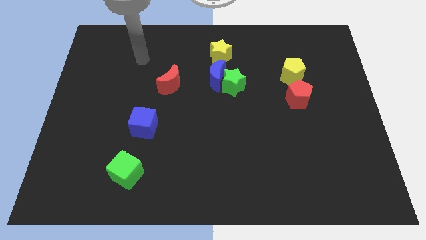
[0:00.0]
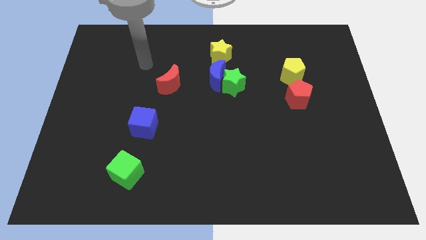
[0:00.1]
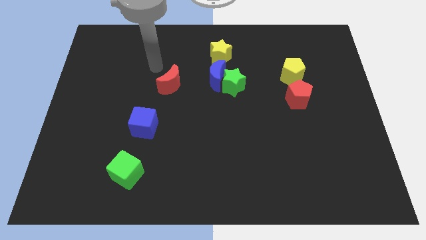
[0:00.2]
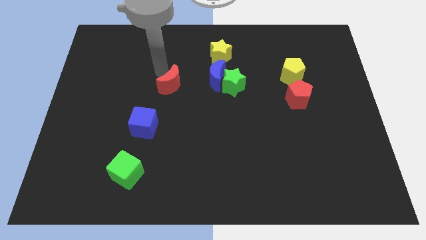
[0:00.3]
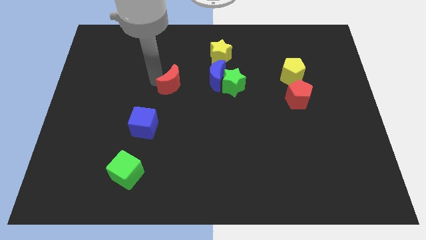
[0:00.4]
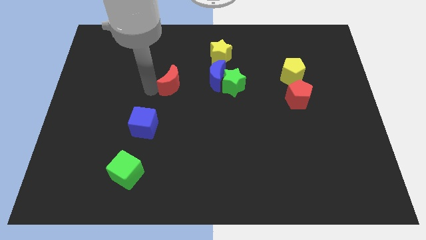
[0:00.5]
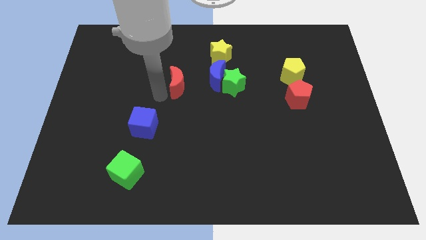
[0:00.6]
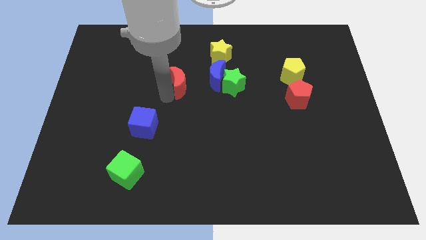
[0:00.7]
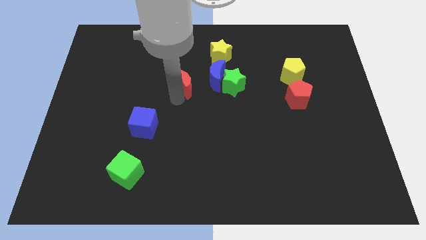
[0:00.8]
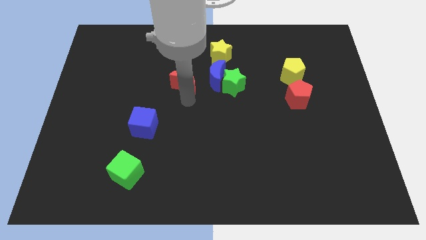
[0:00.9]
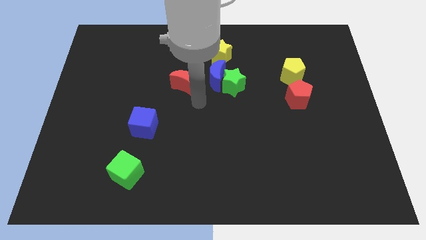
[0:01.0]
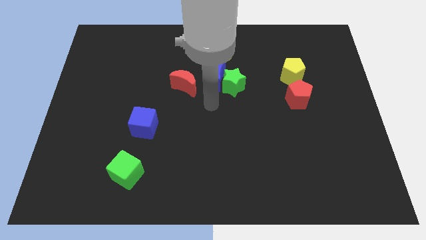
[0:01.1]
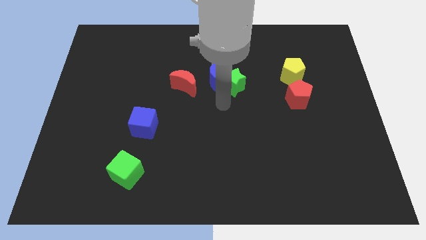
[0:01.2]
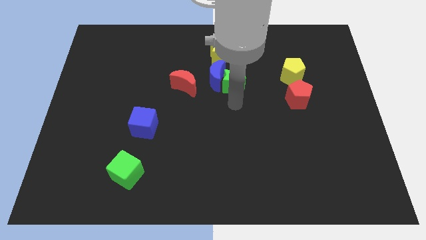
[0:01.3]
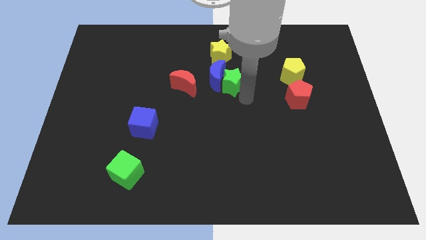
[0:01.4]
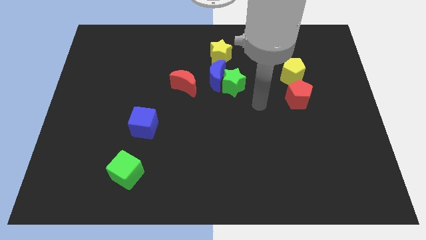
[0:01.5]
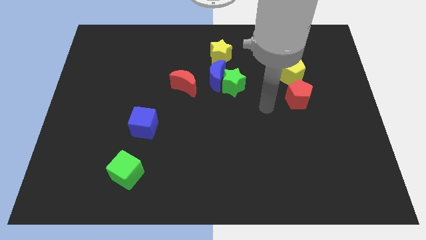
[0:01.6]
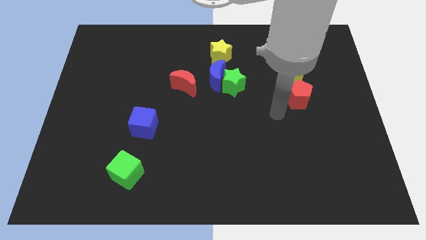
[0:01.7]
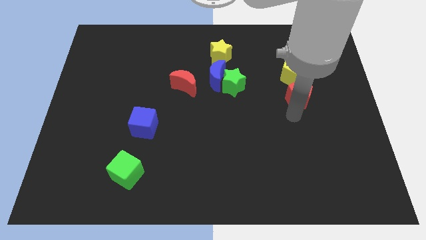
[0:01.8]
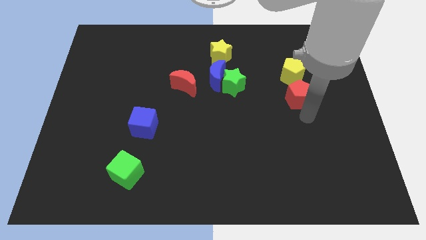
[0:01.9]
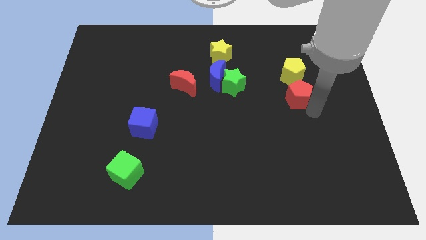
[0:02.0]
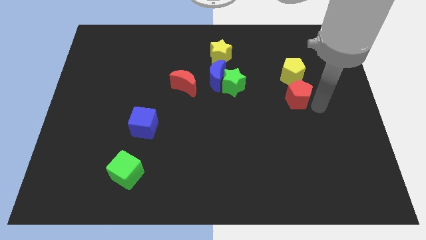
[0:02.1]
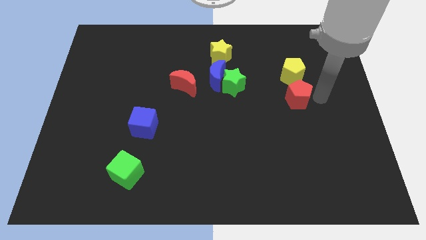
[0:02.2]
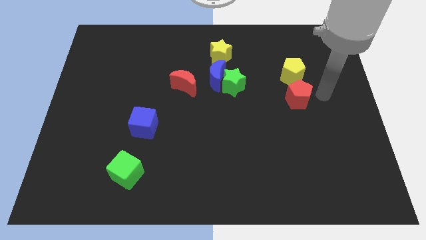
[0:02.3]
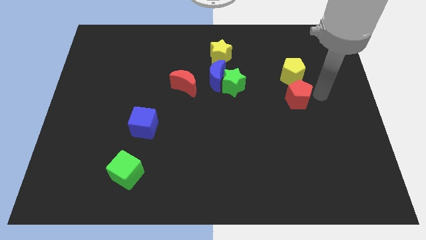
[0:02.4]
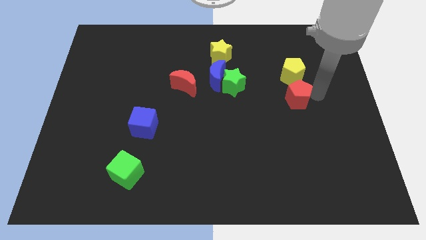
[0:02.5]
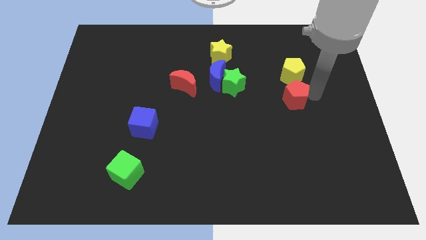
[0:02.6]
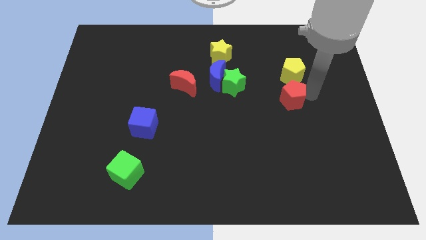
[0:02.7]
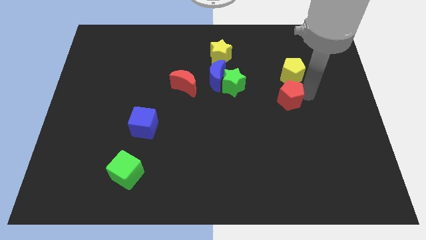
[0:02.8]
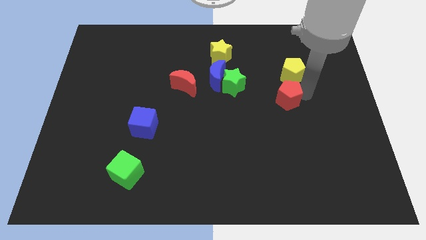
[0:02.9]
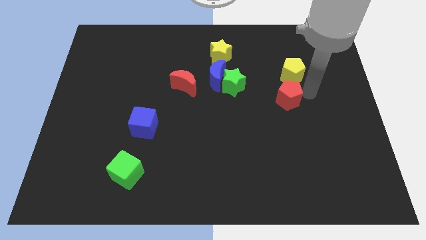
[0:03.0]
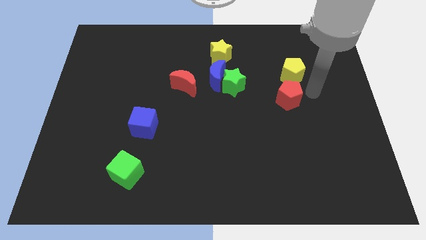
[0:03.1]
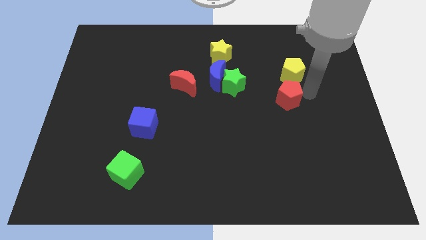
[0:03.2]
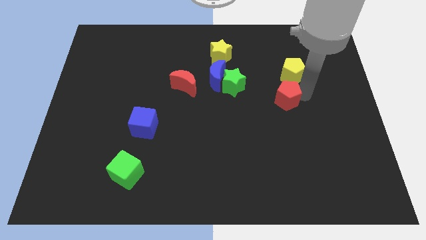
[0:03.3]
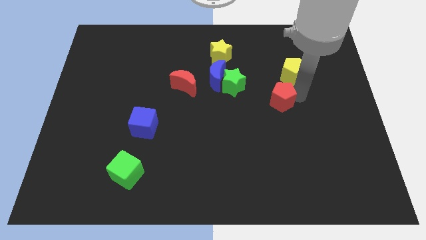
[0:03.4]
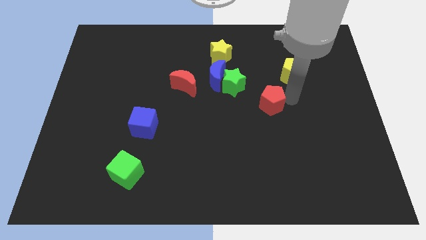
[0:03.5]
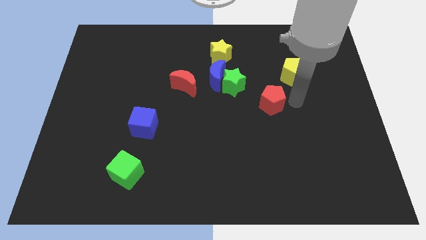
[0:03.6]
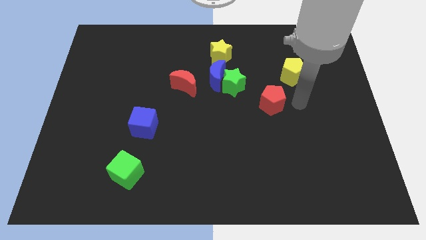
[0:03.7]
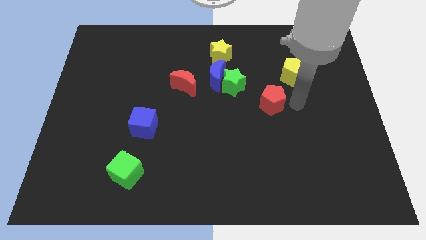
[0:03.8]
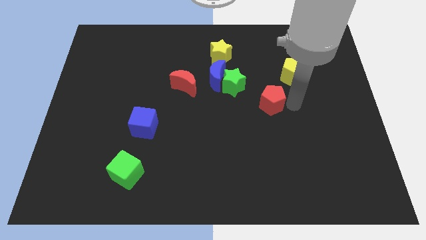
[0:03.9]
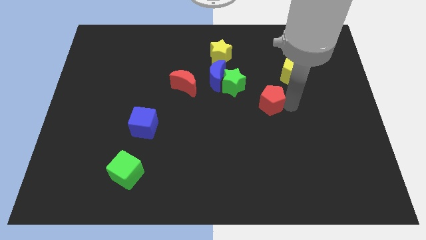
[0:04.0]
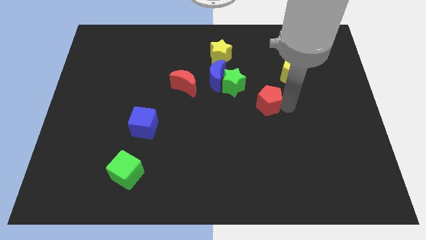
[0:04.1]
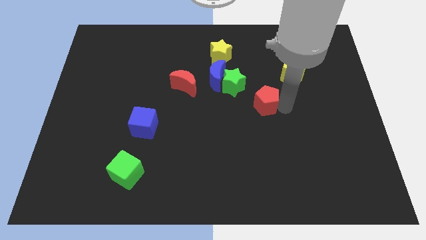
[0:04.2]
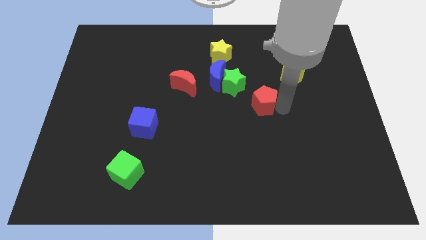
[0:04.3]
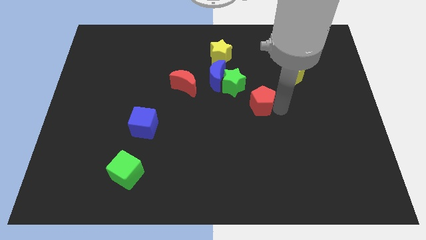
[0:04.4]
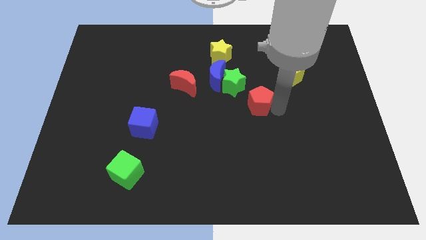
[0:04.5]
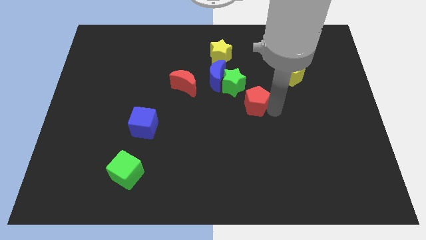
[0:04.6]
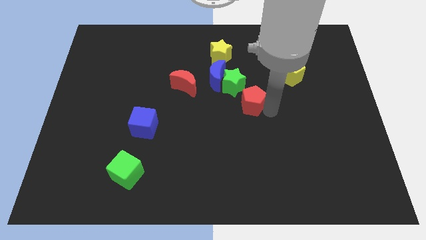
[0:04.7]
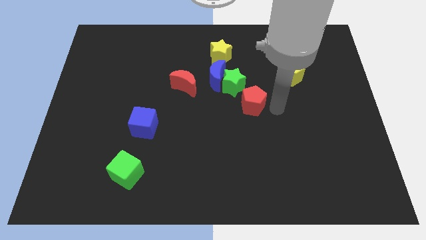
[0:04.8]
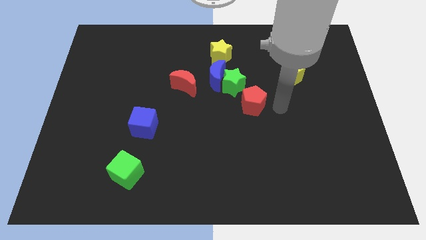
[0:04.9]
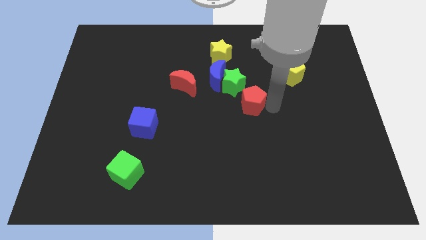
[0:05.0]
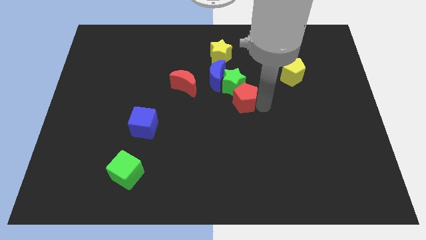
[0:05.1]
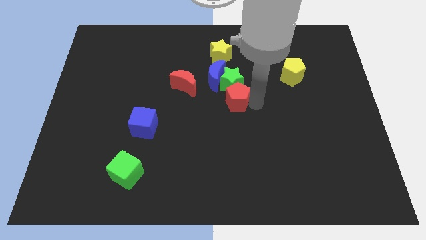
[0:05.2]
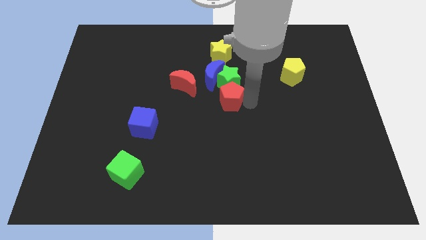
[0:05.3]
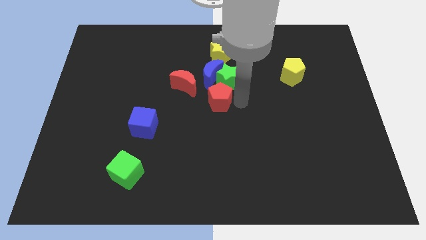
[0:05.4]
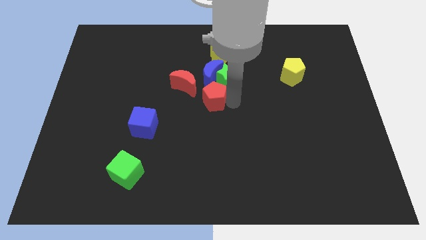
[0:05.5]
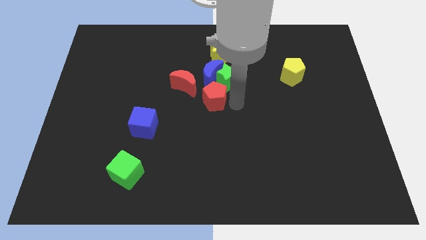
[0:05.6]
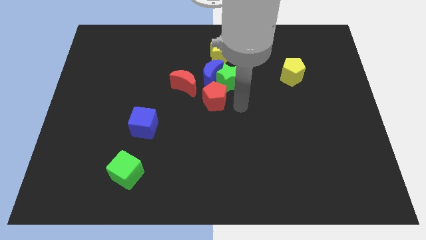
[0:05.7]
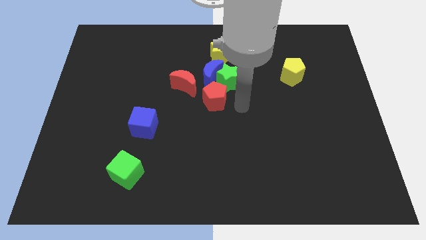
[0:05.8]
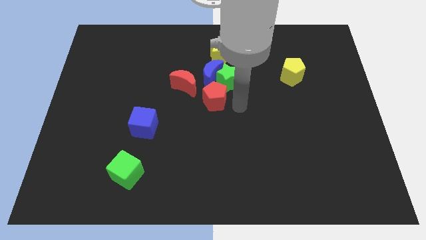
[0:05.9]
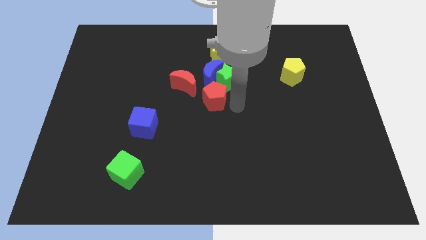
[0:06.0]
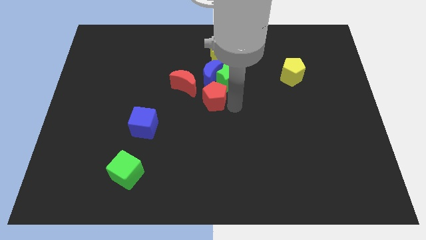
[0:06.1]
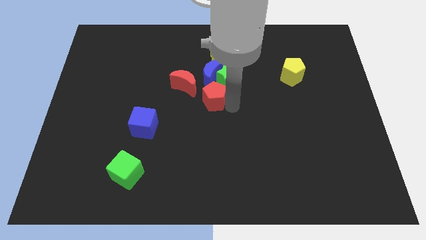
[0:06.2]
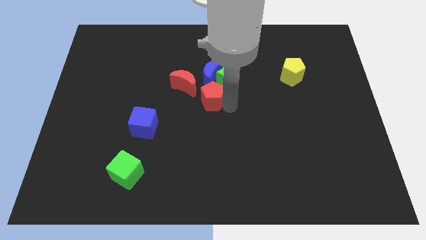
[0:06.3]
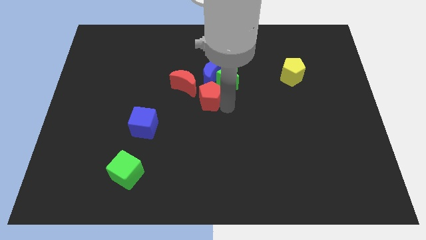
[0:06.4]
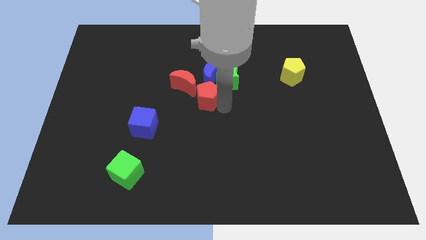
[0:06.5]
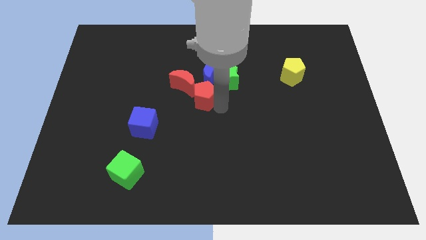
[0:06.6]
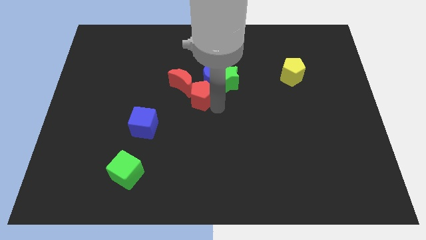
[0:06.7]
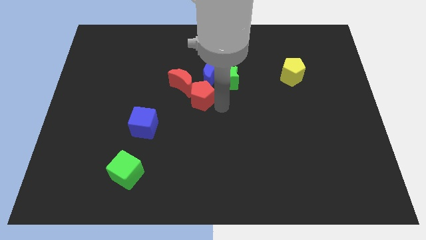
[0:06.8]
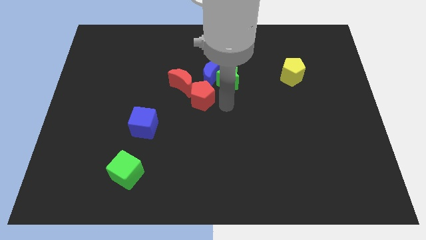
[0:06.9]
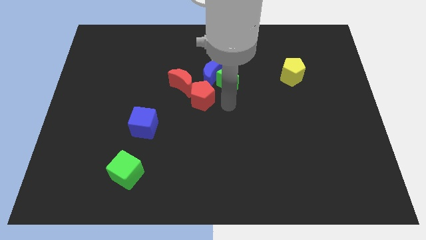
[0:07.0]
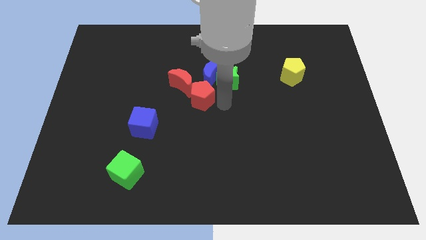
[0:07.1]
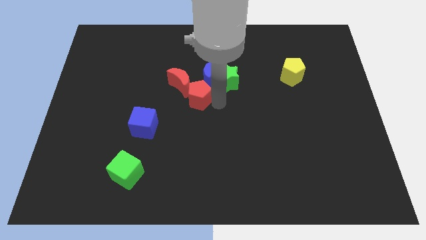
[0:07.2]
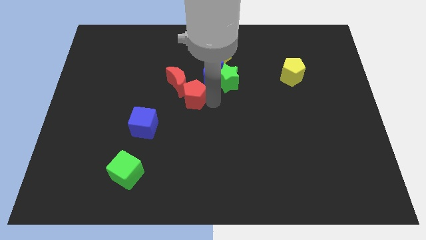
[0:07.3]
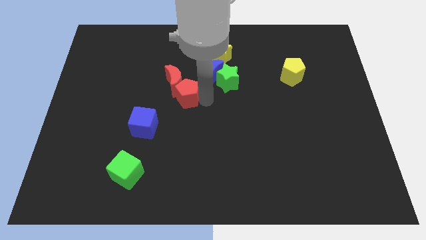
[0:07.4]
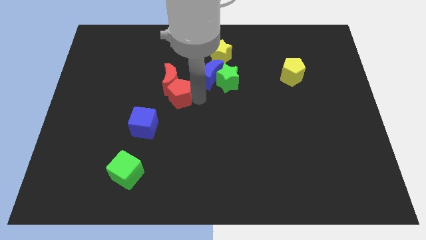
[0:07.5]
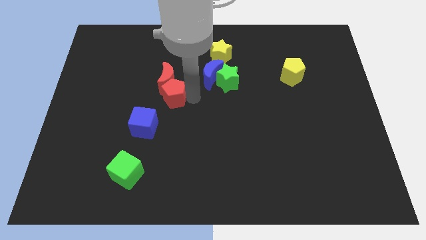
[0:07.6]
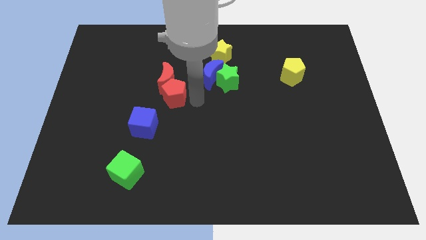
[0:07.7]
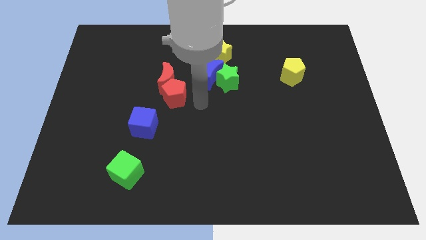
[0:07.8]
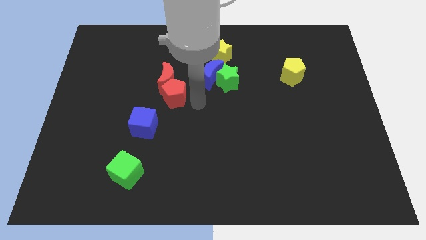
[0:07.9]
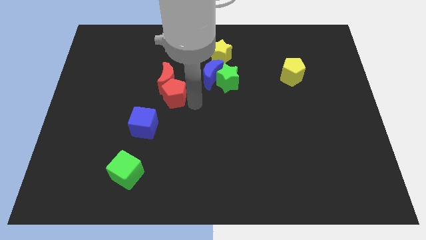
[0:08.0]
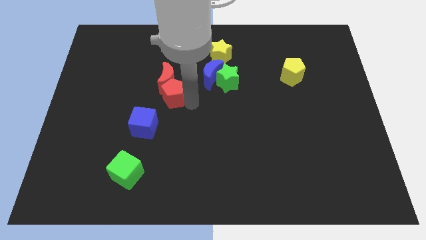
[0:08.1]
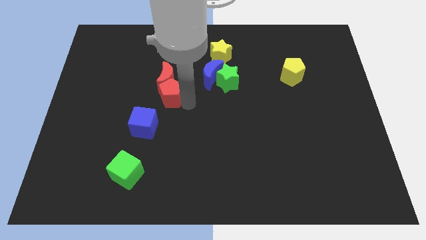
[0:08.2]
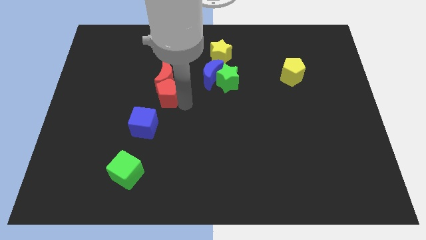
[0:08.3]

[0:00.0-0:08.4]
move the red pentagon above the blue cube
